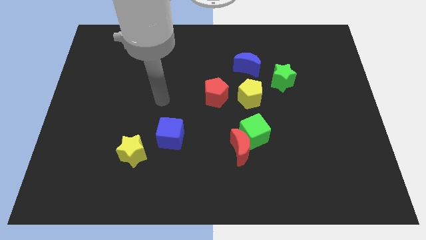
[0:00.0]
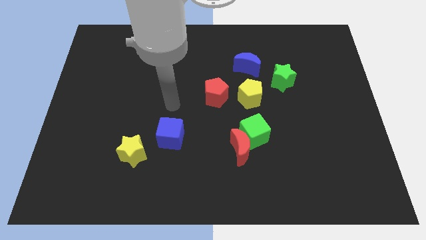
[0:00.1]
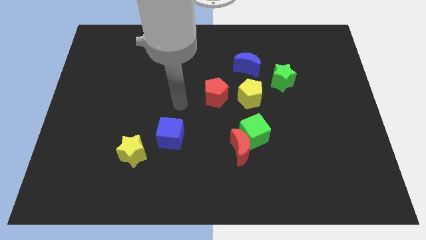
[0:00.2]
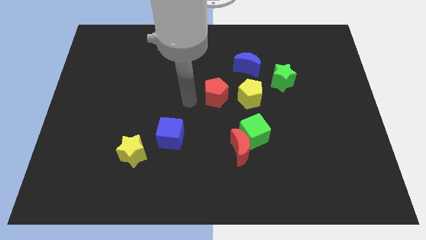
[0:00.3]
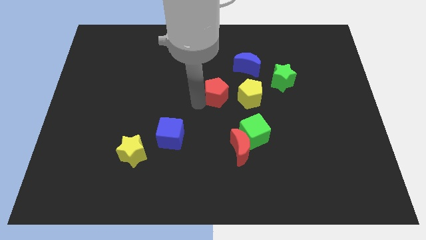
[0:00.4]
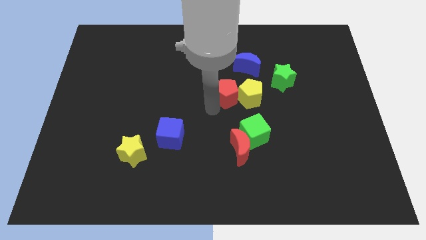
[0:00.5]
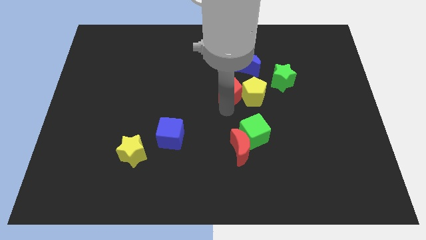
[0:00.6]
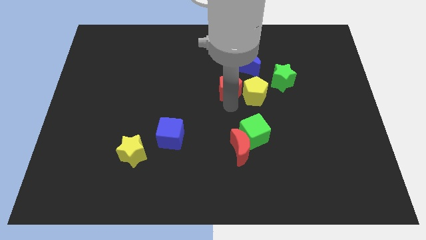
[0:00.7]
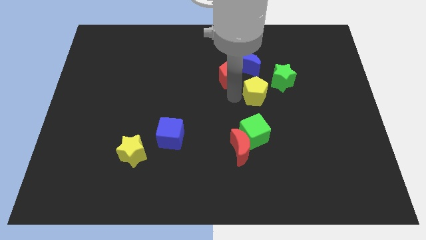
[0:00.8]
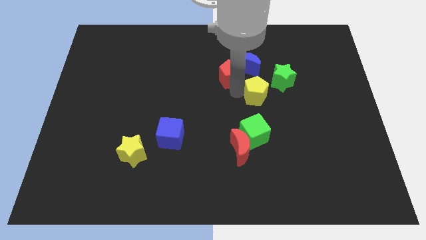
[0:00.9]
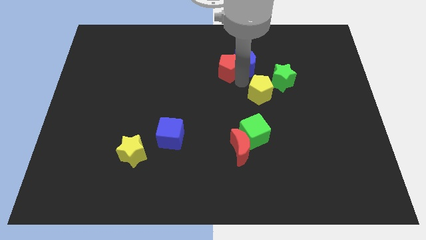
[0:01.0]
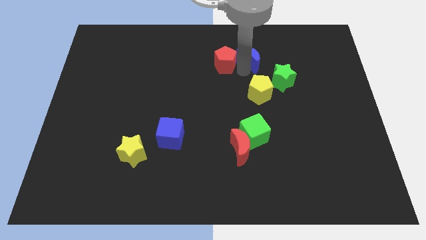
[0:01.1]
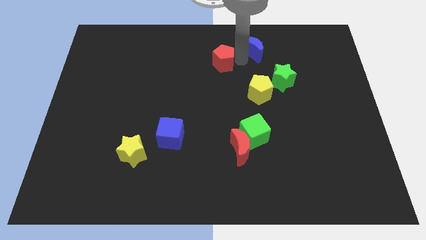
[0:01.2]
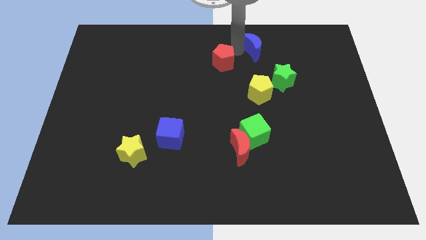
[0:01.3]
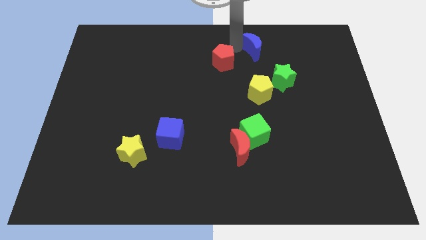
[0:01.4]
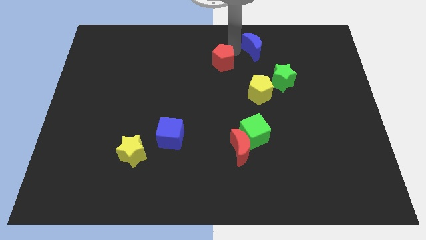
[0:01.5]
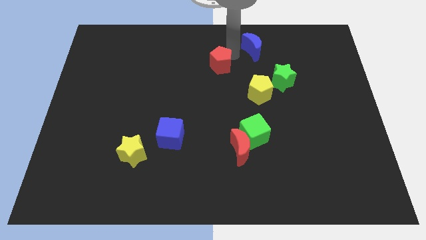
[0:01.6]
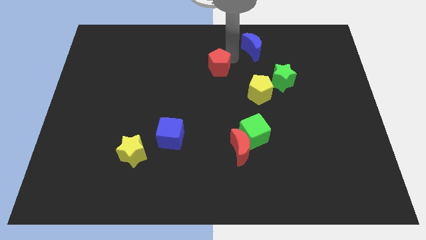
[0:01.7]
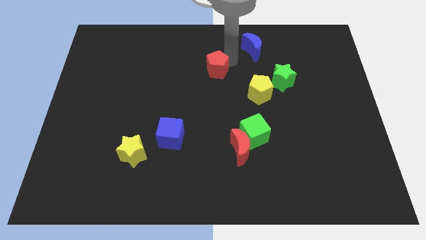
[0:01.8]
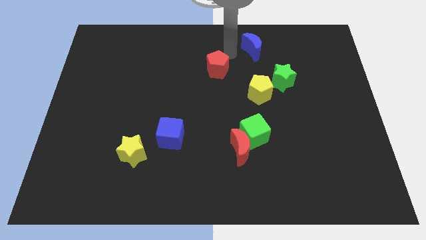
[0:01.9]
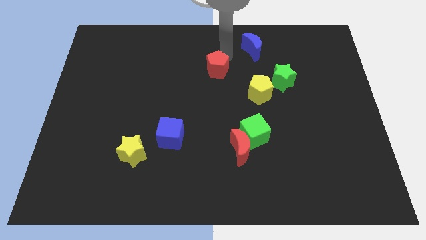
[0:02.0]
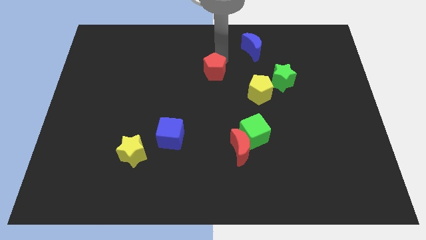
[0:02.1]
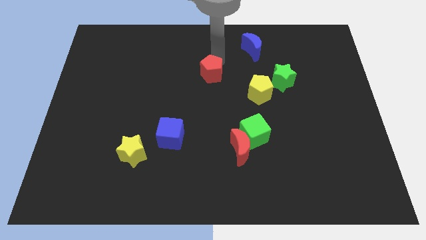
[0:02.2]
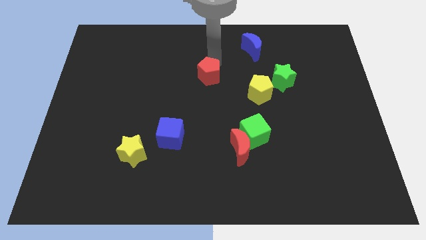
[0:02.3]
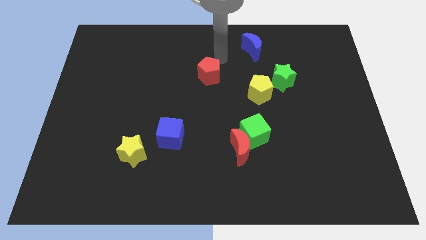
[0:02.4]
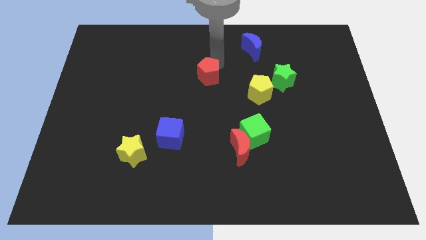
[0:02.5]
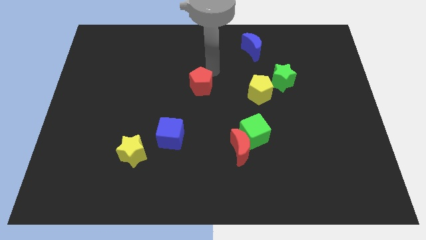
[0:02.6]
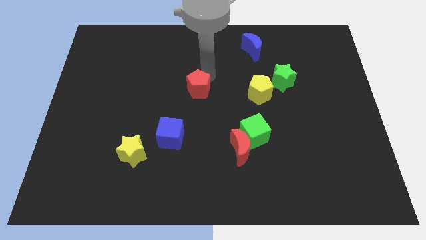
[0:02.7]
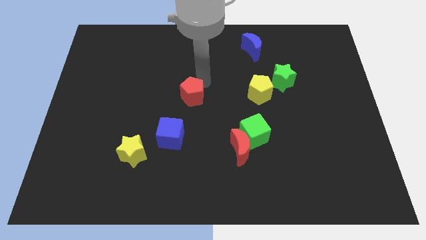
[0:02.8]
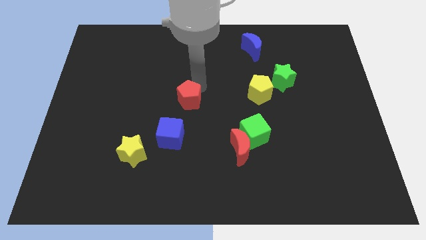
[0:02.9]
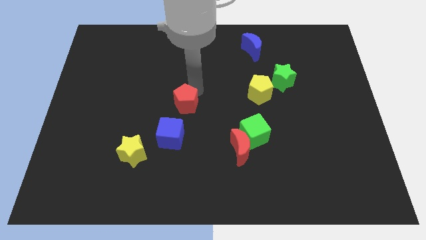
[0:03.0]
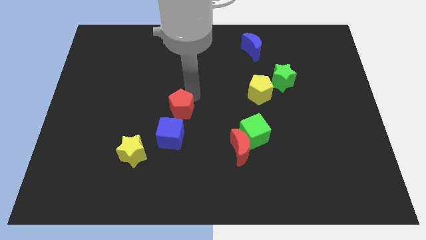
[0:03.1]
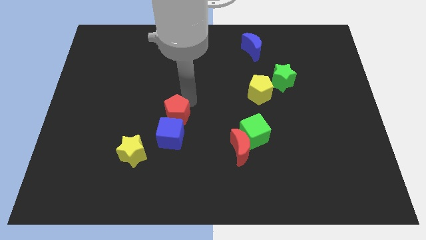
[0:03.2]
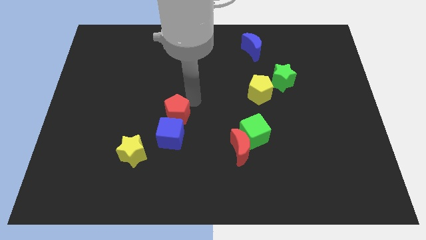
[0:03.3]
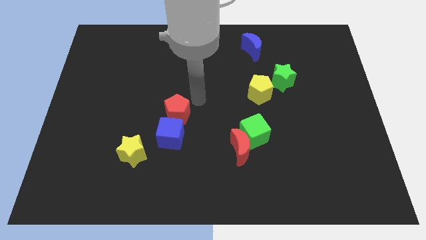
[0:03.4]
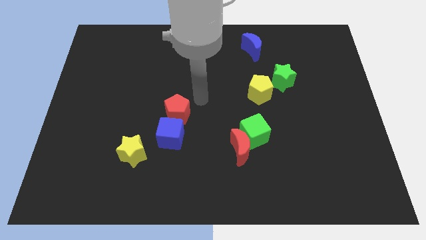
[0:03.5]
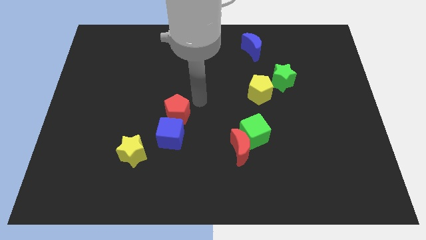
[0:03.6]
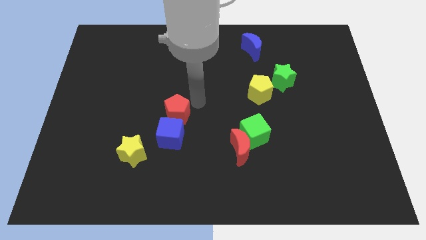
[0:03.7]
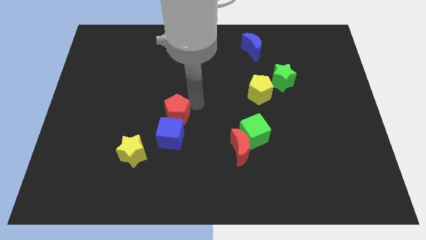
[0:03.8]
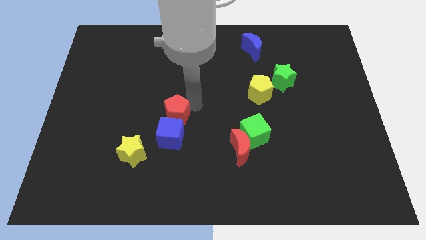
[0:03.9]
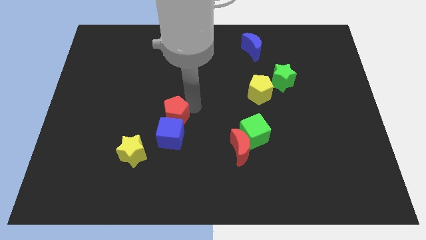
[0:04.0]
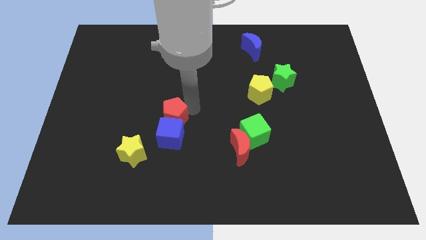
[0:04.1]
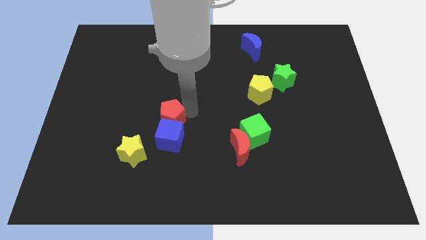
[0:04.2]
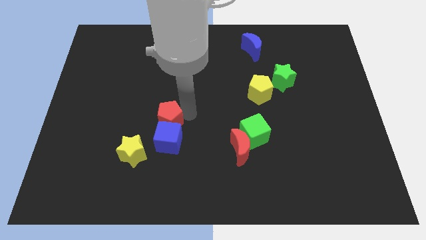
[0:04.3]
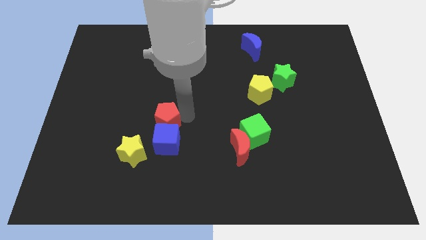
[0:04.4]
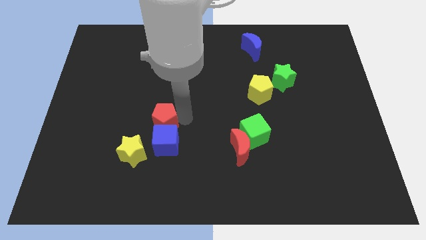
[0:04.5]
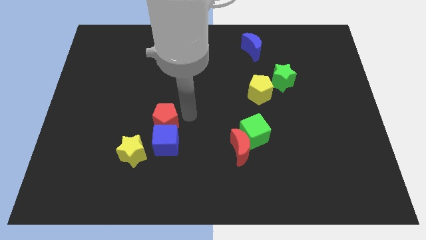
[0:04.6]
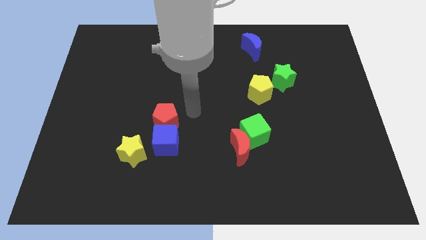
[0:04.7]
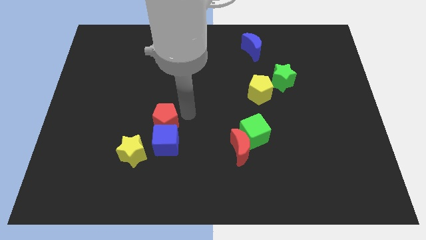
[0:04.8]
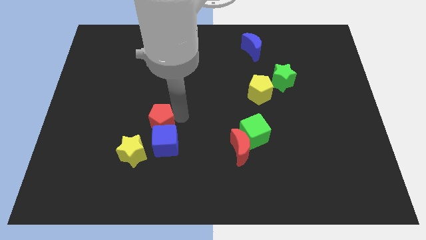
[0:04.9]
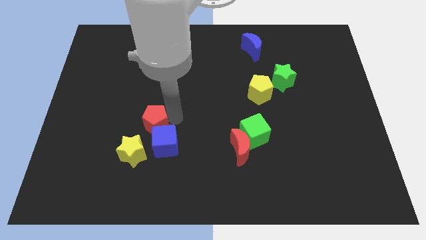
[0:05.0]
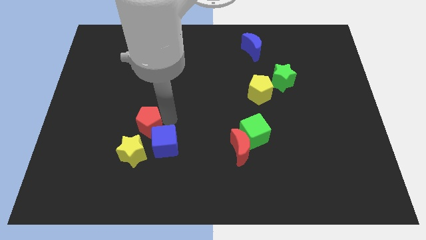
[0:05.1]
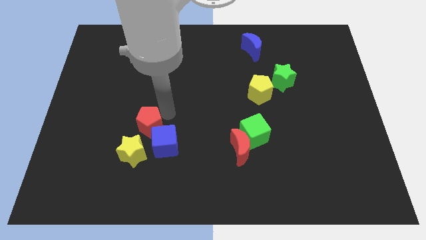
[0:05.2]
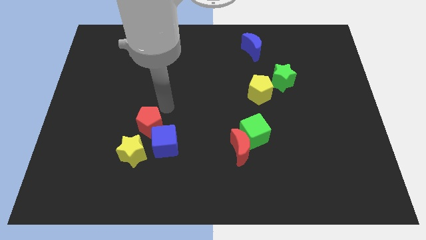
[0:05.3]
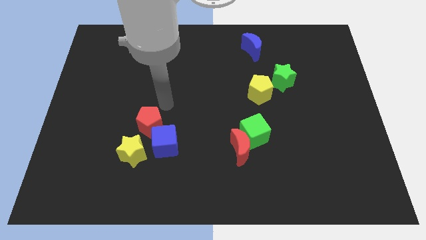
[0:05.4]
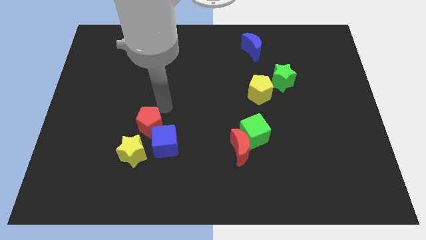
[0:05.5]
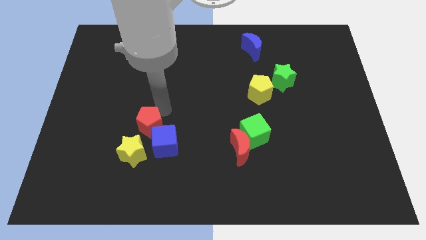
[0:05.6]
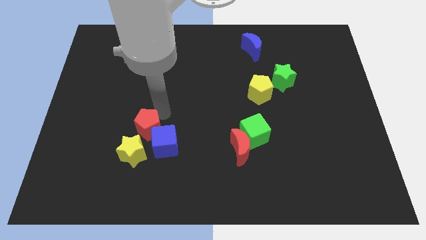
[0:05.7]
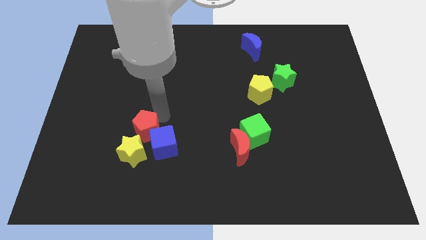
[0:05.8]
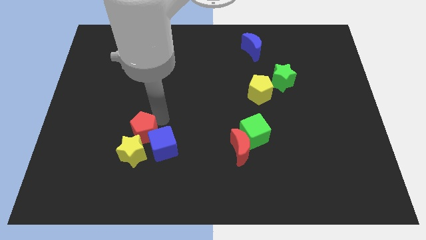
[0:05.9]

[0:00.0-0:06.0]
put the red pentagon close to the yellow star

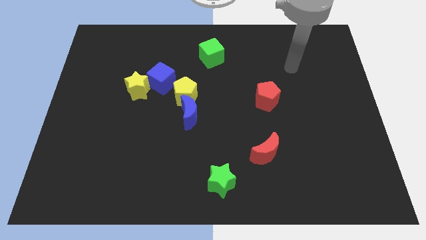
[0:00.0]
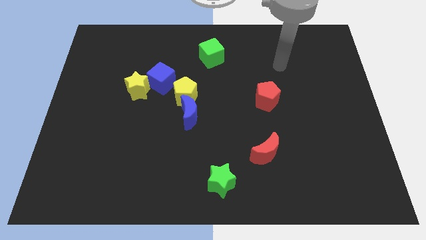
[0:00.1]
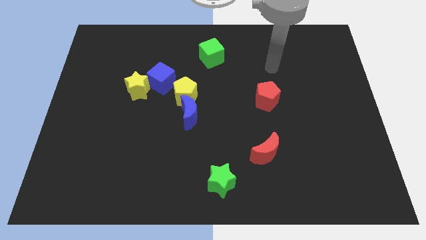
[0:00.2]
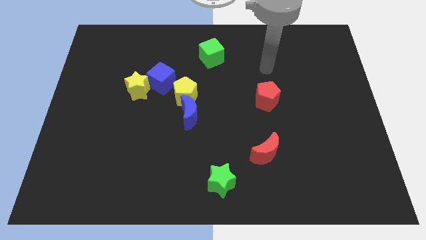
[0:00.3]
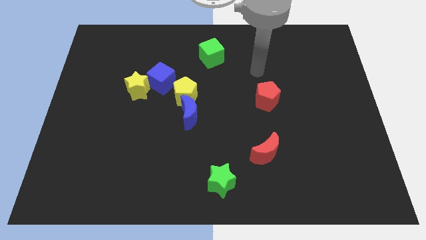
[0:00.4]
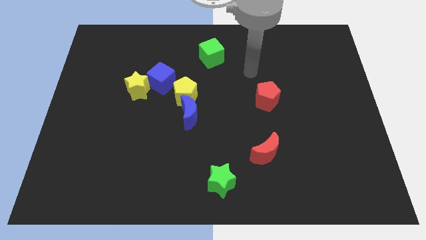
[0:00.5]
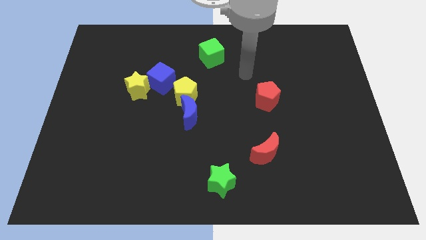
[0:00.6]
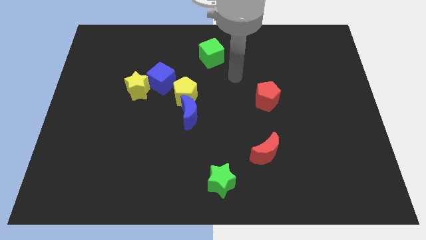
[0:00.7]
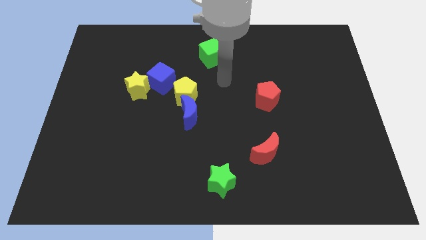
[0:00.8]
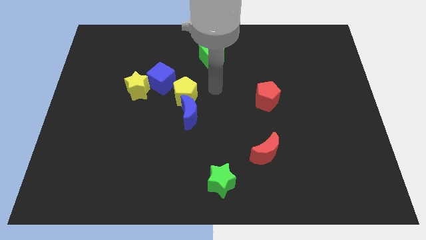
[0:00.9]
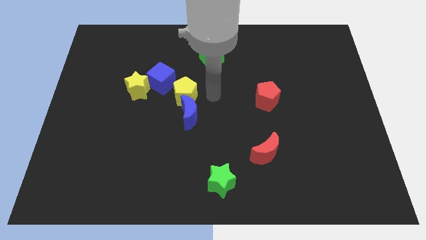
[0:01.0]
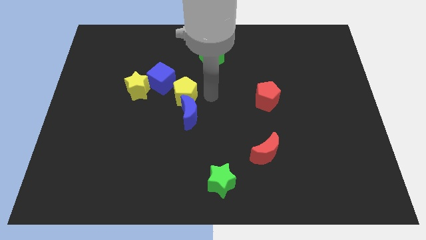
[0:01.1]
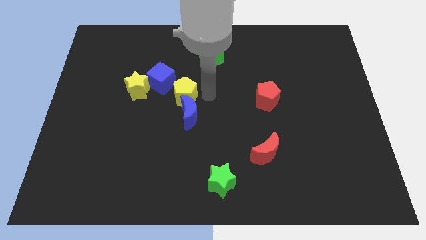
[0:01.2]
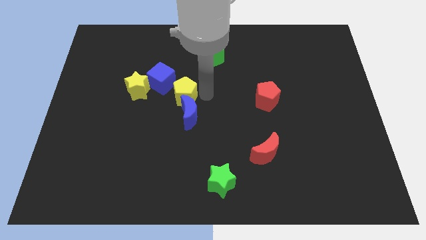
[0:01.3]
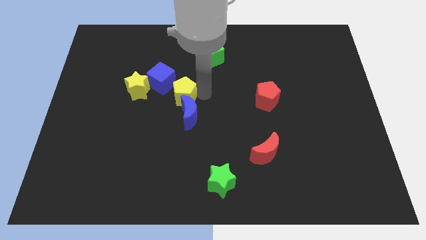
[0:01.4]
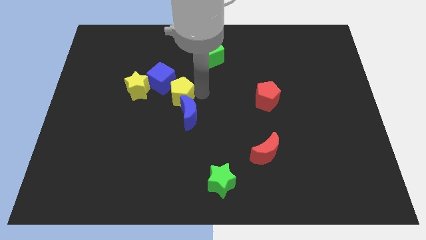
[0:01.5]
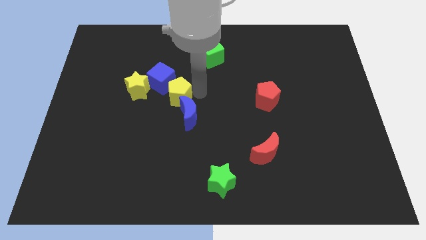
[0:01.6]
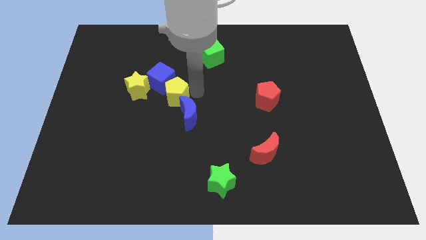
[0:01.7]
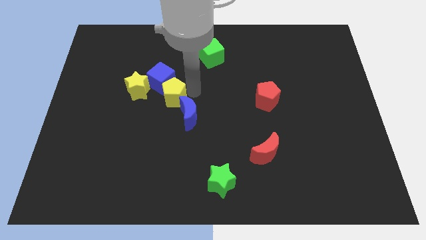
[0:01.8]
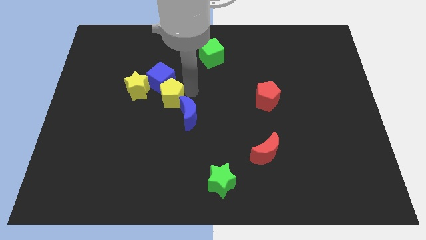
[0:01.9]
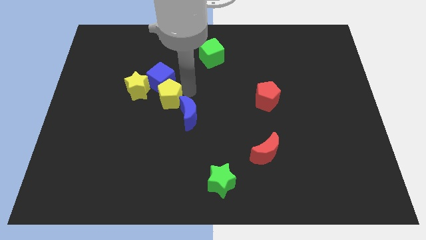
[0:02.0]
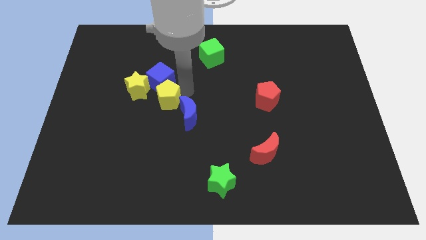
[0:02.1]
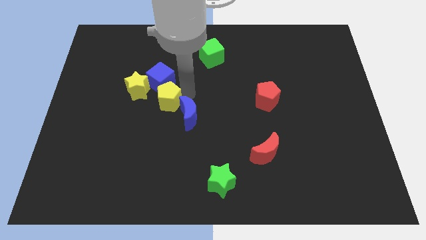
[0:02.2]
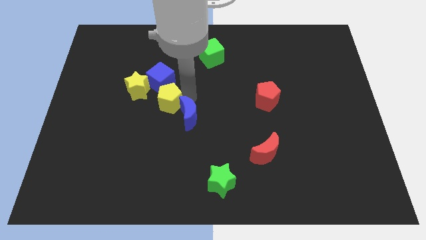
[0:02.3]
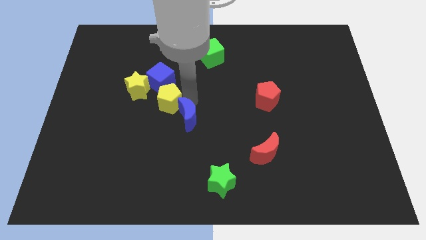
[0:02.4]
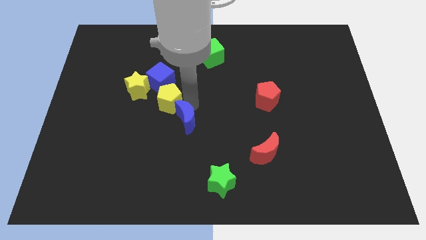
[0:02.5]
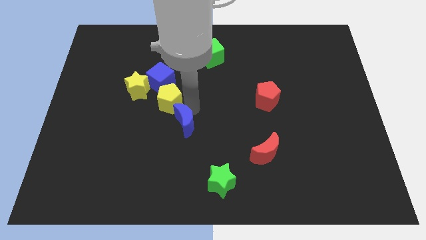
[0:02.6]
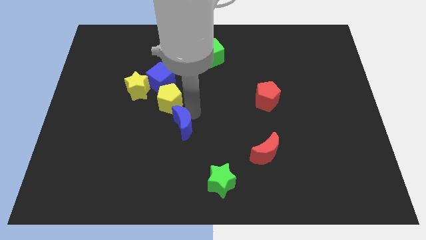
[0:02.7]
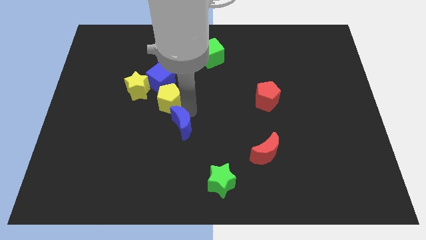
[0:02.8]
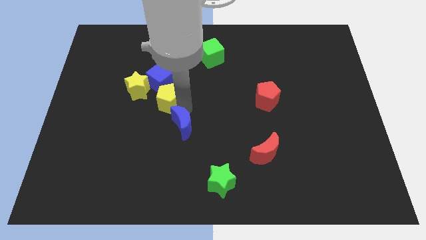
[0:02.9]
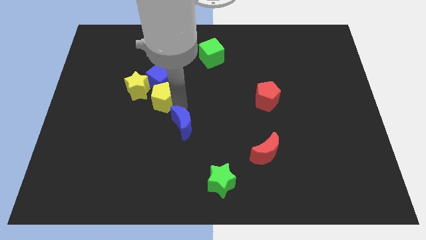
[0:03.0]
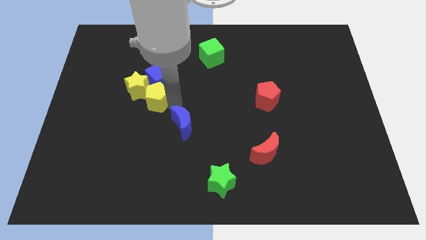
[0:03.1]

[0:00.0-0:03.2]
put the yellow pentagon next to the yellow star
